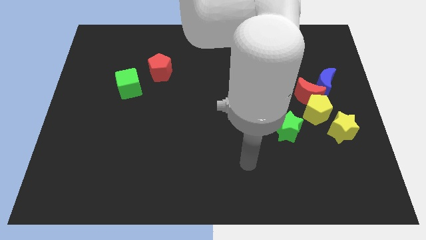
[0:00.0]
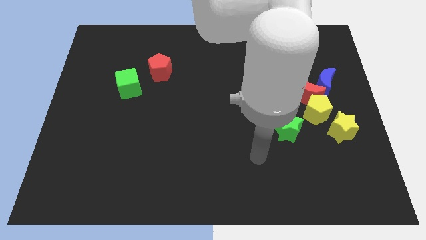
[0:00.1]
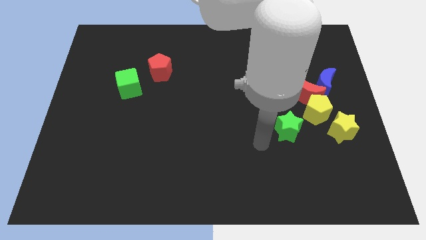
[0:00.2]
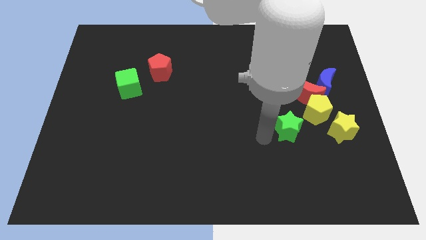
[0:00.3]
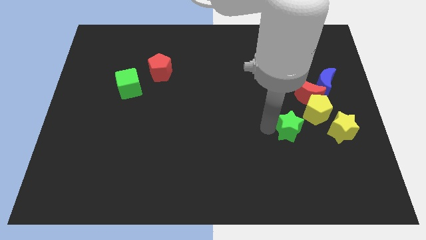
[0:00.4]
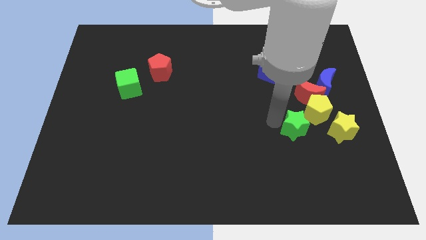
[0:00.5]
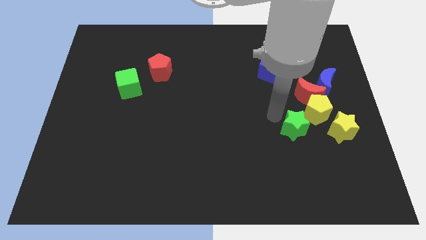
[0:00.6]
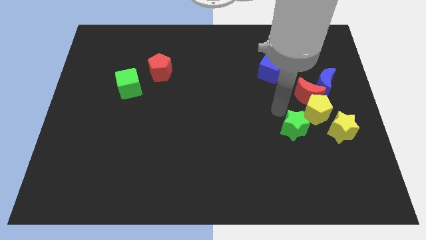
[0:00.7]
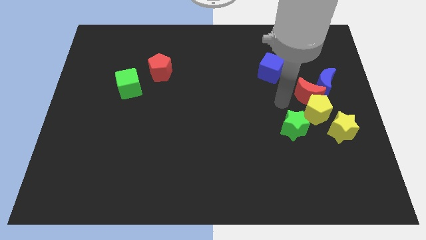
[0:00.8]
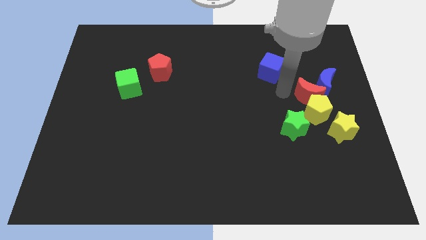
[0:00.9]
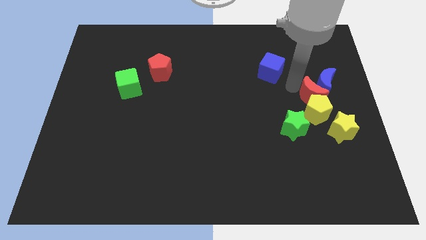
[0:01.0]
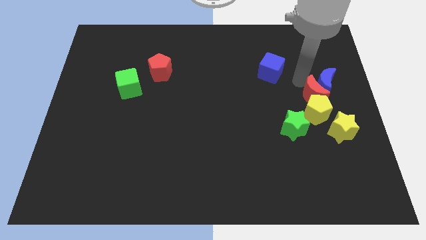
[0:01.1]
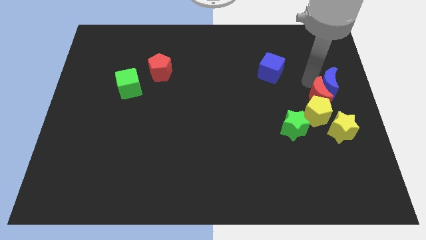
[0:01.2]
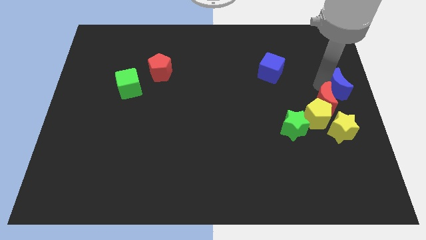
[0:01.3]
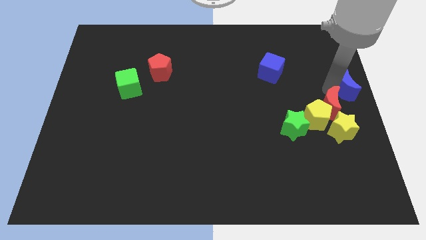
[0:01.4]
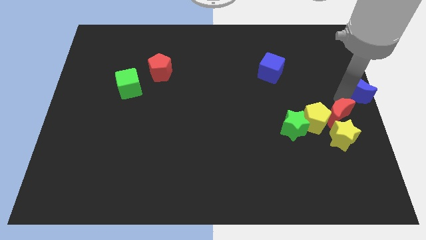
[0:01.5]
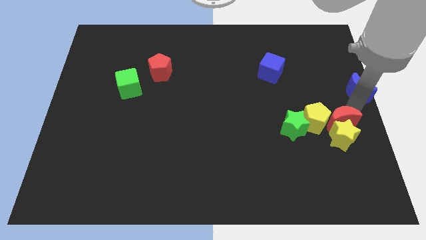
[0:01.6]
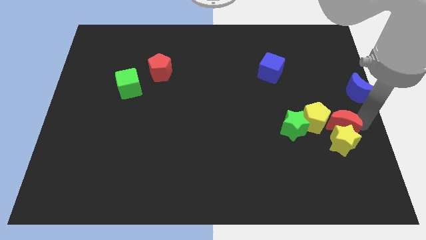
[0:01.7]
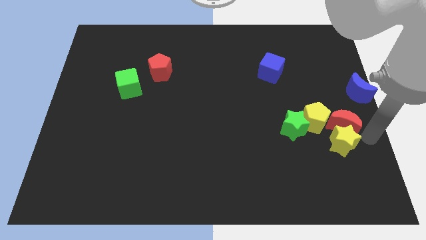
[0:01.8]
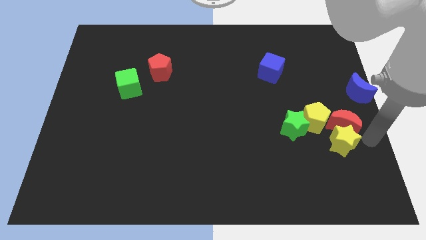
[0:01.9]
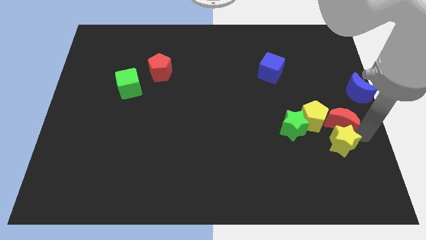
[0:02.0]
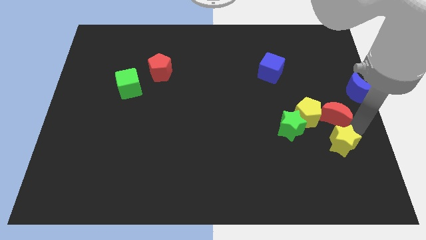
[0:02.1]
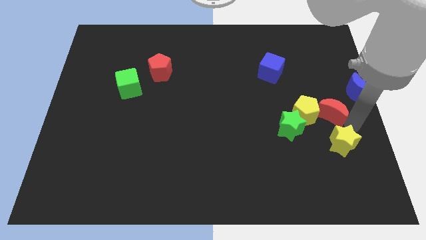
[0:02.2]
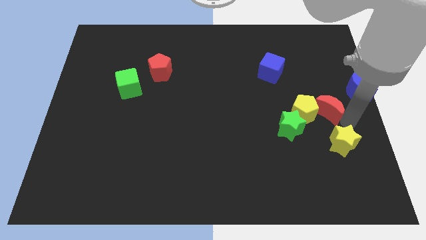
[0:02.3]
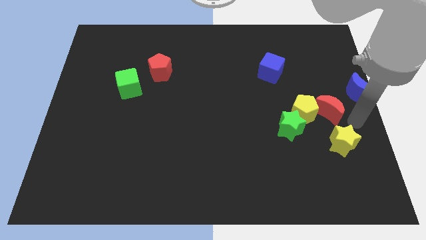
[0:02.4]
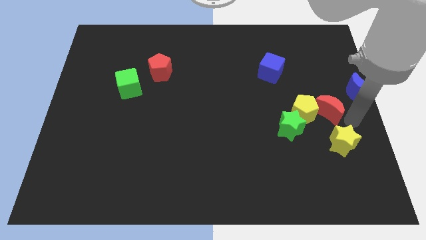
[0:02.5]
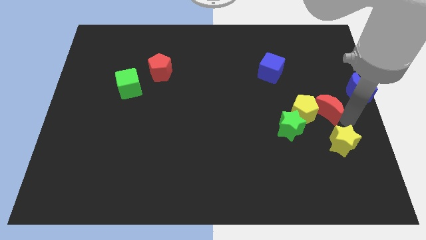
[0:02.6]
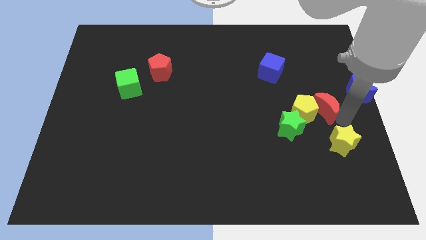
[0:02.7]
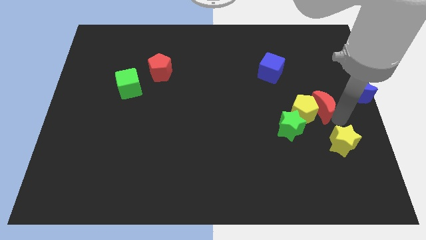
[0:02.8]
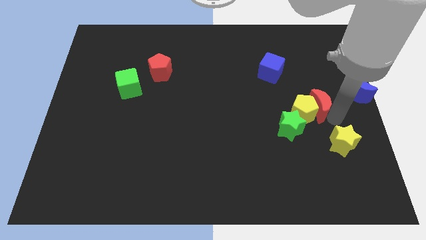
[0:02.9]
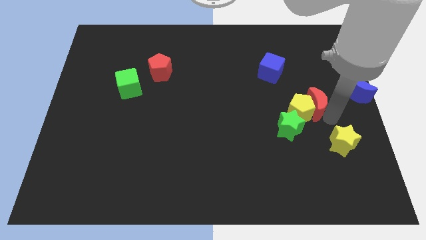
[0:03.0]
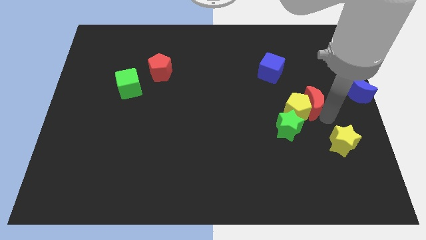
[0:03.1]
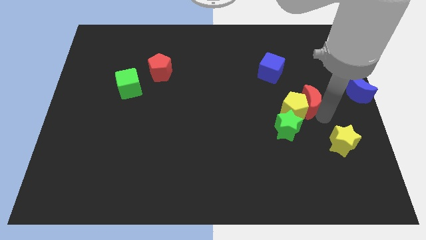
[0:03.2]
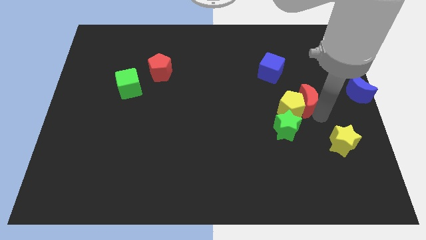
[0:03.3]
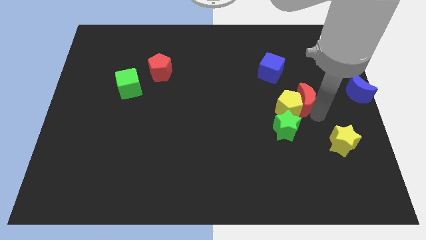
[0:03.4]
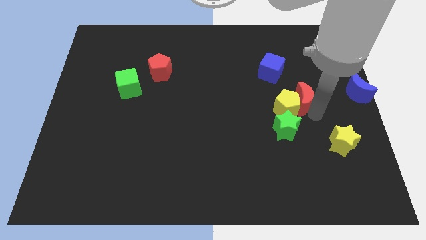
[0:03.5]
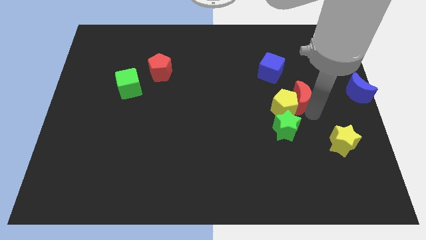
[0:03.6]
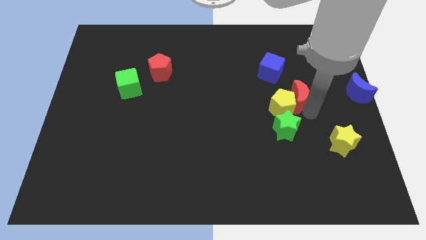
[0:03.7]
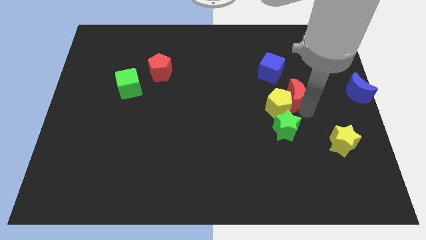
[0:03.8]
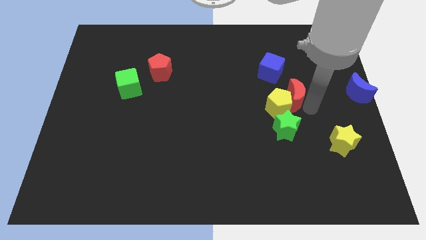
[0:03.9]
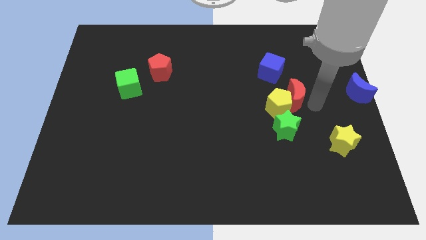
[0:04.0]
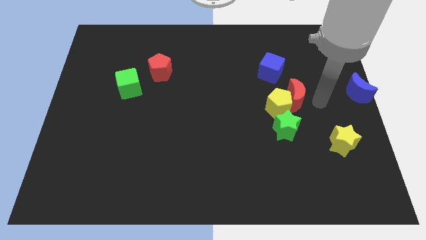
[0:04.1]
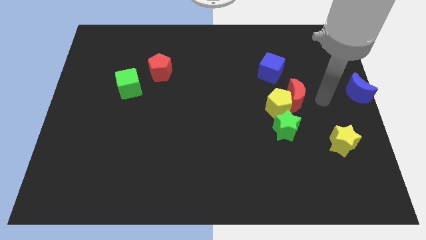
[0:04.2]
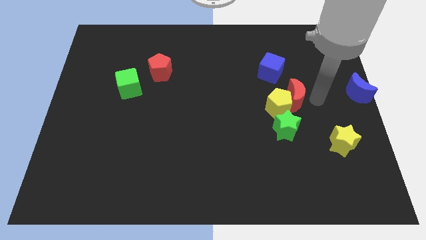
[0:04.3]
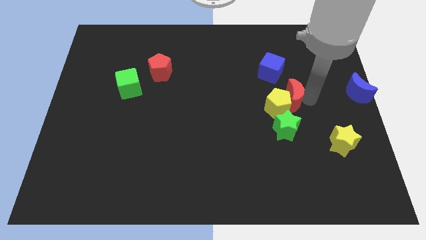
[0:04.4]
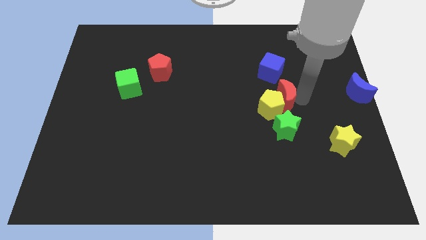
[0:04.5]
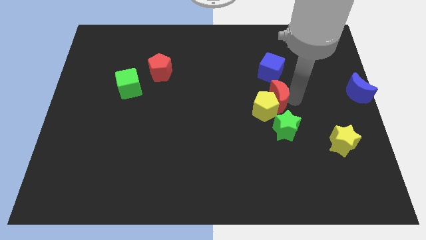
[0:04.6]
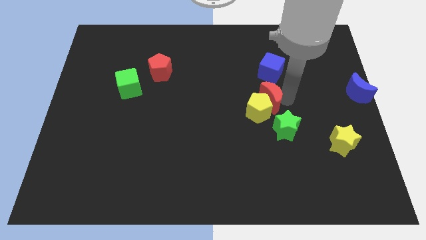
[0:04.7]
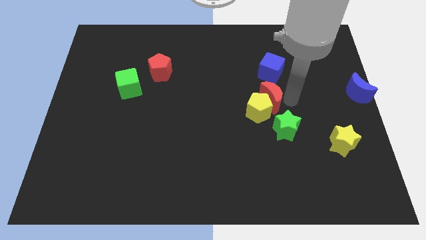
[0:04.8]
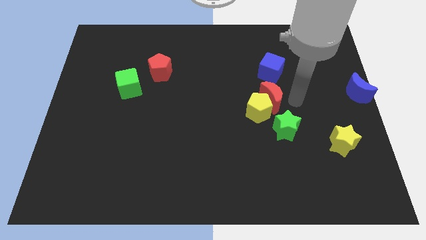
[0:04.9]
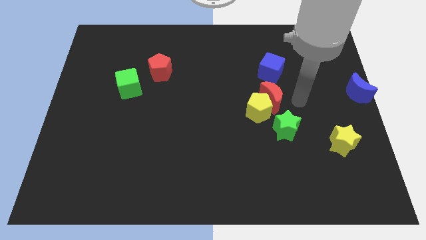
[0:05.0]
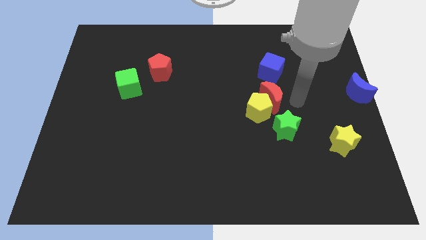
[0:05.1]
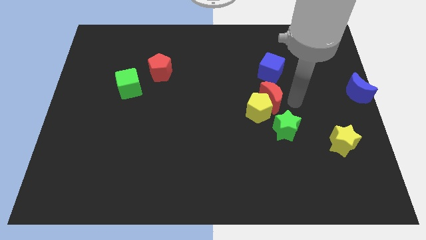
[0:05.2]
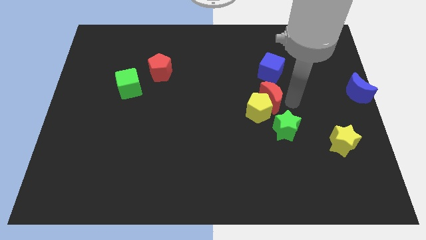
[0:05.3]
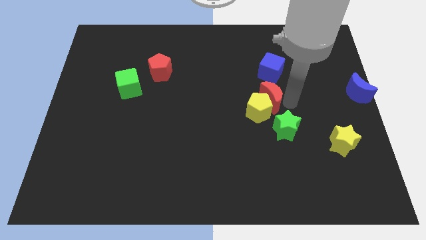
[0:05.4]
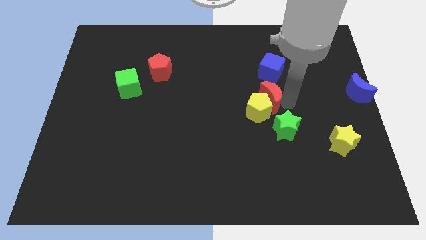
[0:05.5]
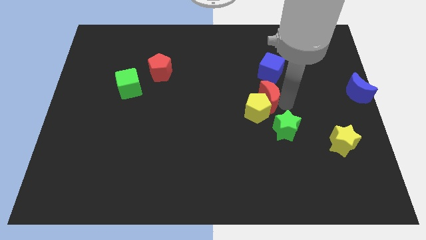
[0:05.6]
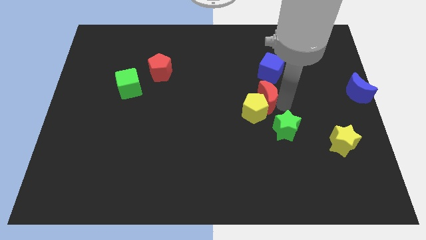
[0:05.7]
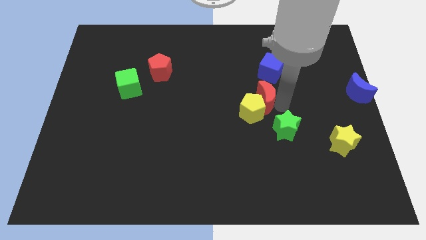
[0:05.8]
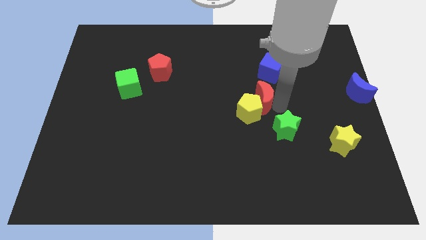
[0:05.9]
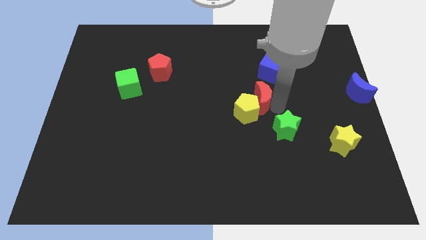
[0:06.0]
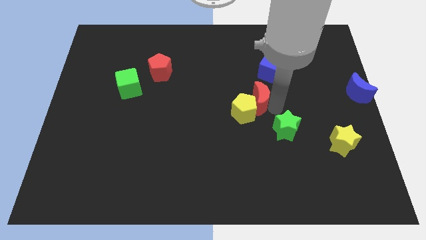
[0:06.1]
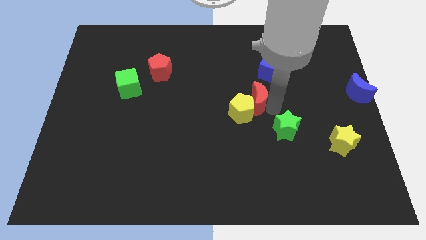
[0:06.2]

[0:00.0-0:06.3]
move the red moon away from the yellow pentagon and blue moon

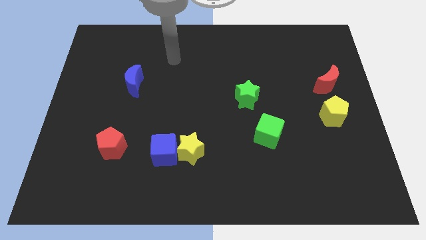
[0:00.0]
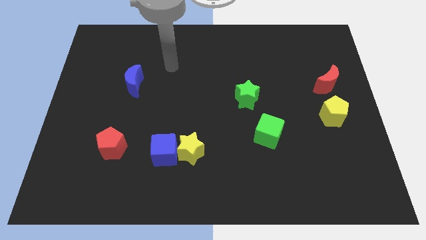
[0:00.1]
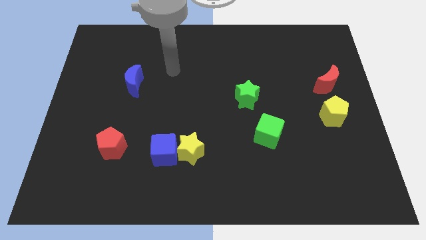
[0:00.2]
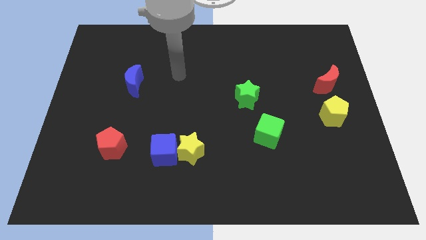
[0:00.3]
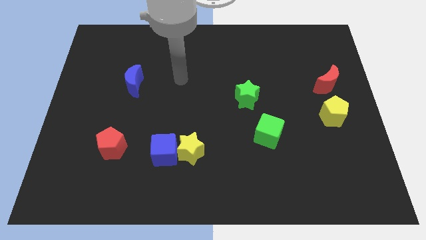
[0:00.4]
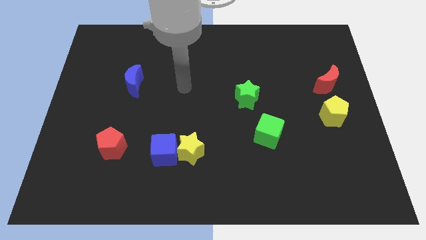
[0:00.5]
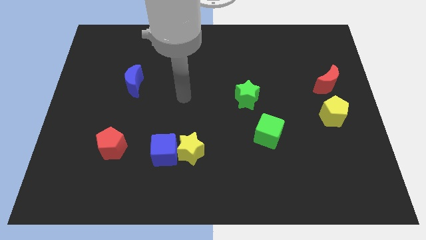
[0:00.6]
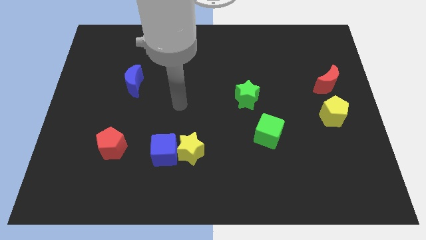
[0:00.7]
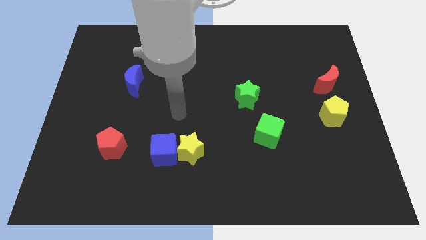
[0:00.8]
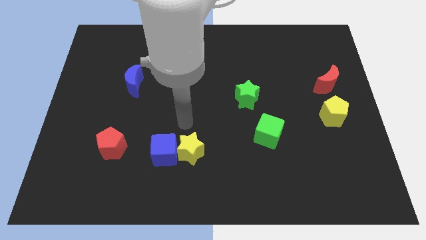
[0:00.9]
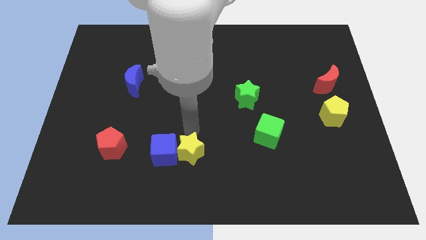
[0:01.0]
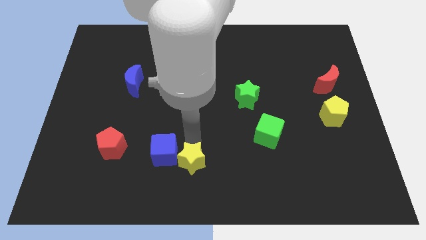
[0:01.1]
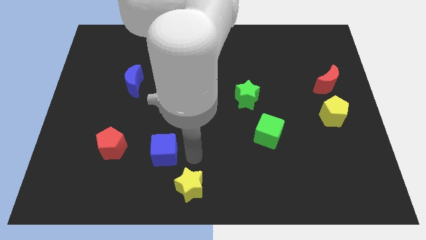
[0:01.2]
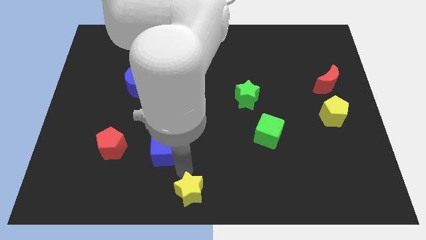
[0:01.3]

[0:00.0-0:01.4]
separate the blue cube from the yellow star

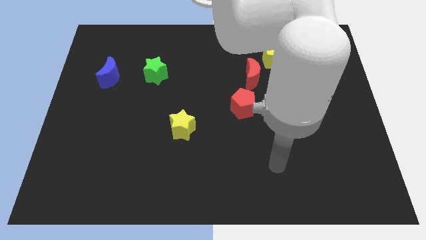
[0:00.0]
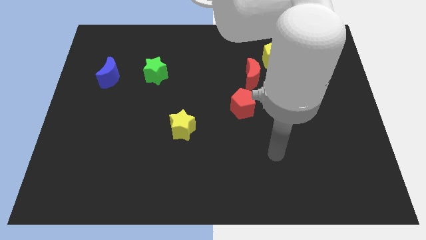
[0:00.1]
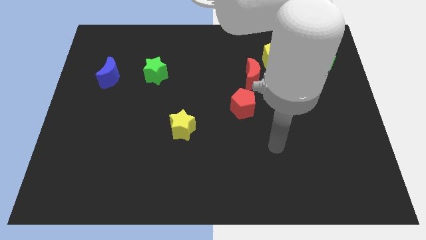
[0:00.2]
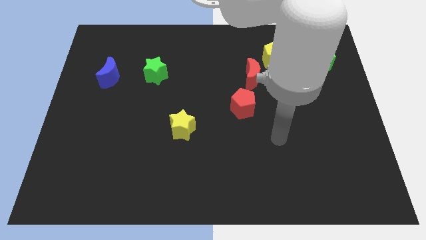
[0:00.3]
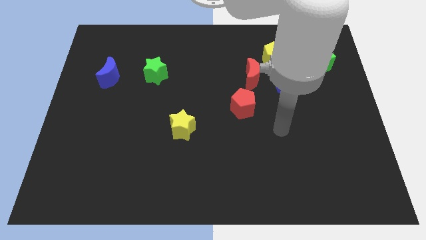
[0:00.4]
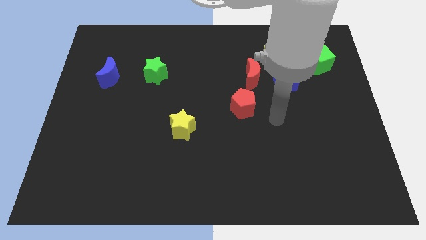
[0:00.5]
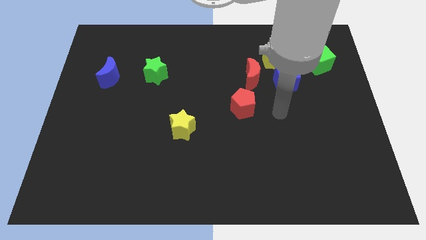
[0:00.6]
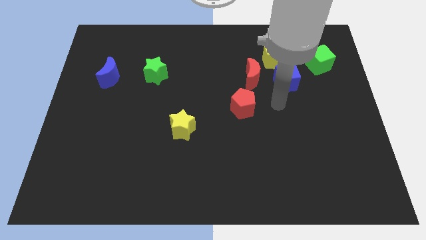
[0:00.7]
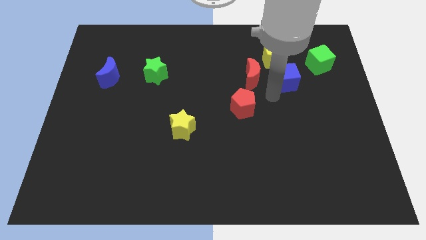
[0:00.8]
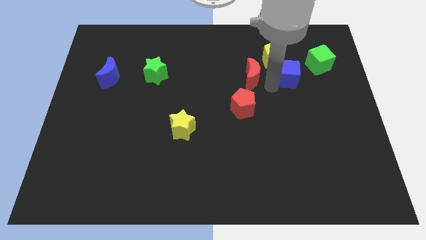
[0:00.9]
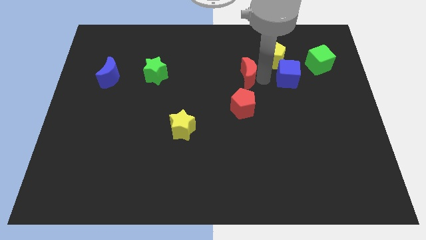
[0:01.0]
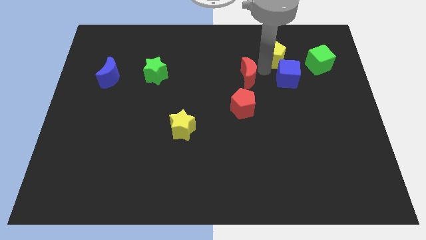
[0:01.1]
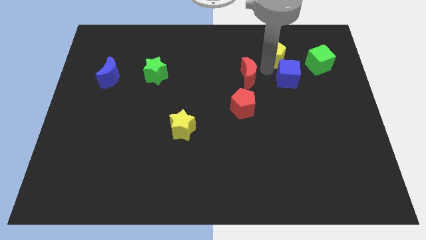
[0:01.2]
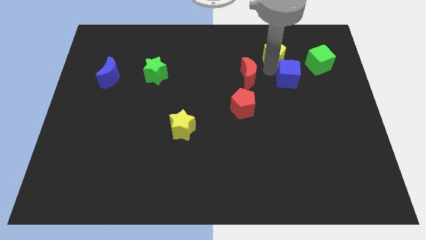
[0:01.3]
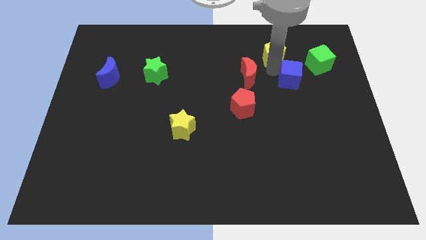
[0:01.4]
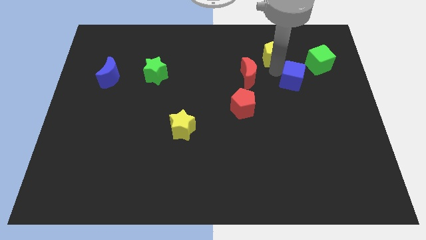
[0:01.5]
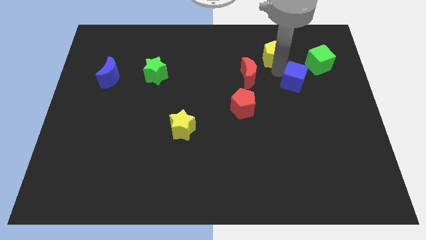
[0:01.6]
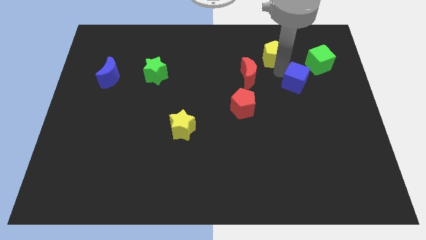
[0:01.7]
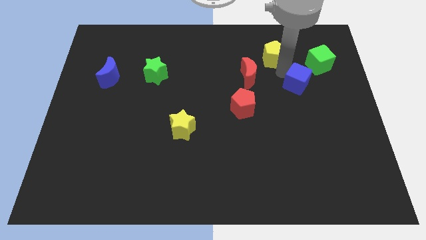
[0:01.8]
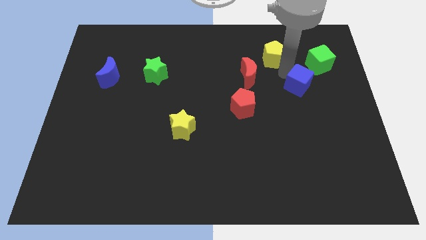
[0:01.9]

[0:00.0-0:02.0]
pull the blue cube apart from the yellow pentagon and red moon
